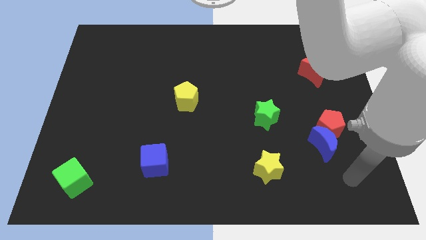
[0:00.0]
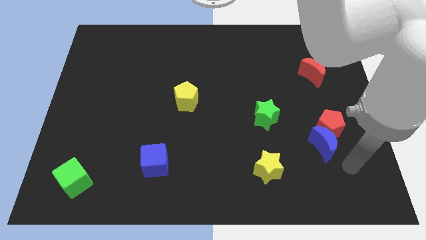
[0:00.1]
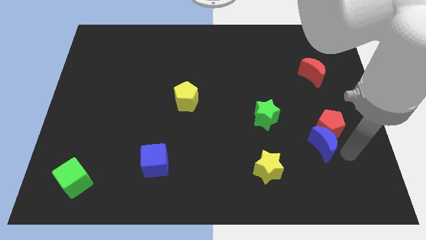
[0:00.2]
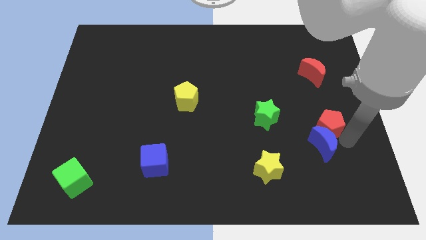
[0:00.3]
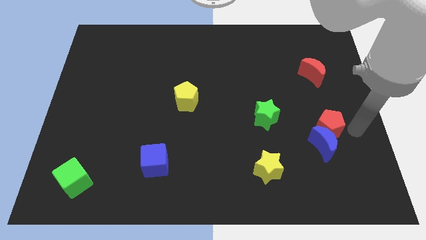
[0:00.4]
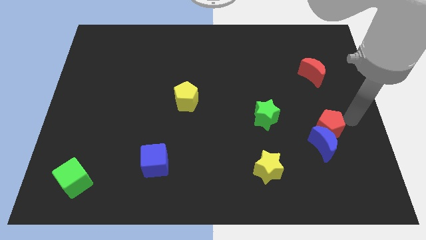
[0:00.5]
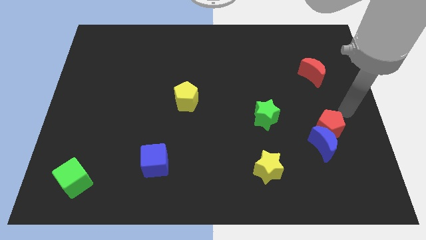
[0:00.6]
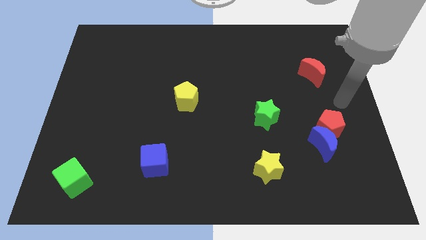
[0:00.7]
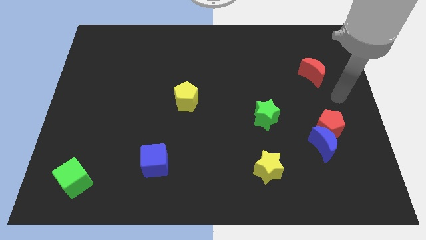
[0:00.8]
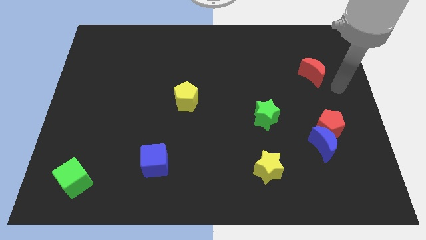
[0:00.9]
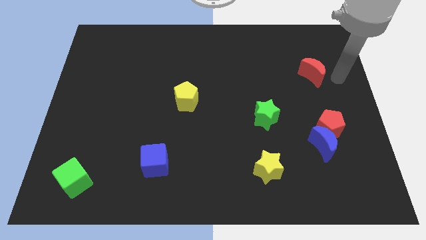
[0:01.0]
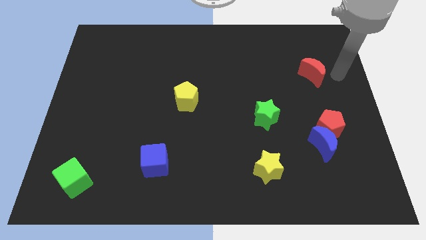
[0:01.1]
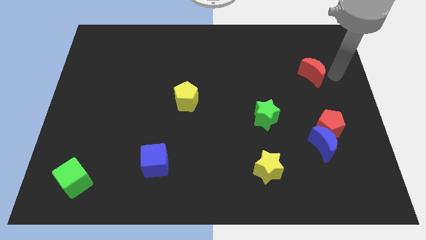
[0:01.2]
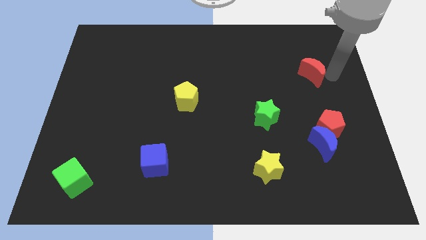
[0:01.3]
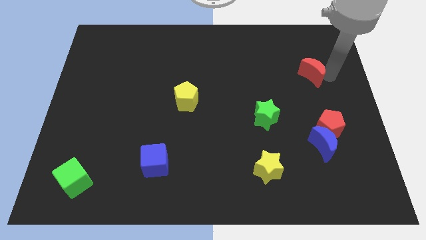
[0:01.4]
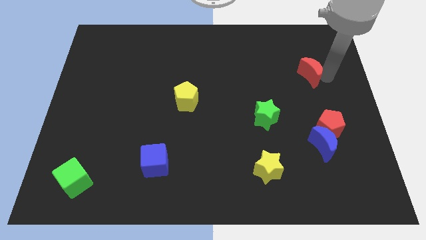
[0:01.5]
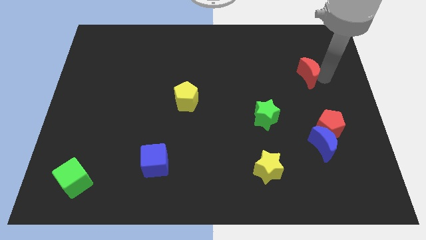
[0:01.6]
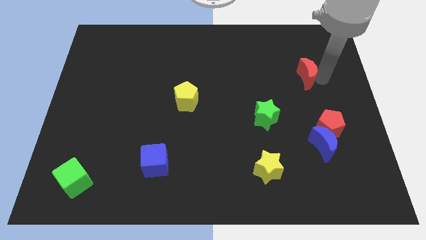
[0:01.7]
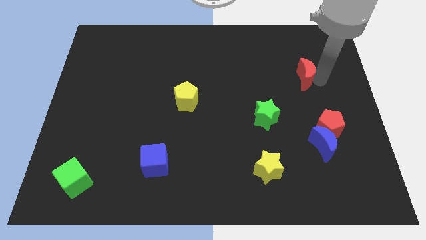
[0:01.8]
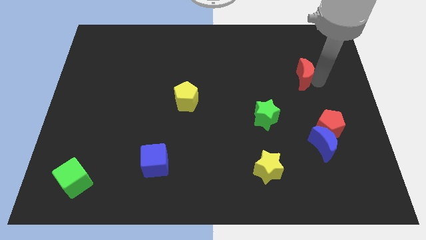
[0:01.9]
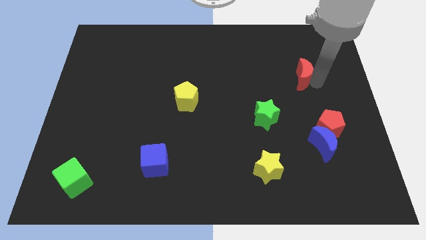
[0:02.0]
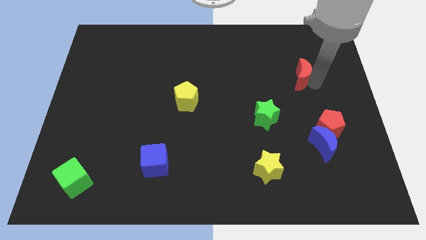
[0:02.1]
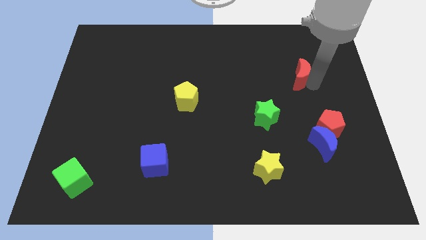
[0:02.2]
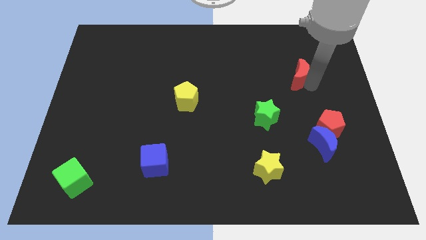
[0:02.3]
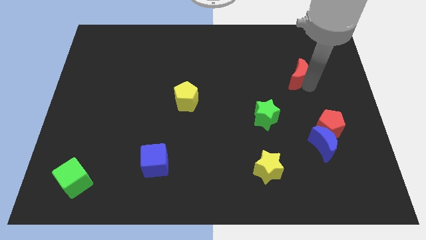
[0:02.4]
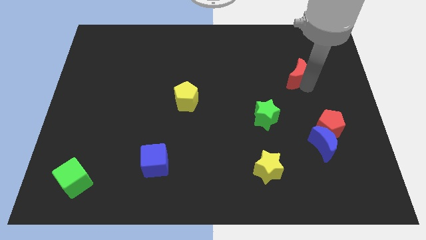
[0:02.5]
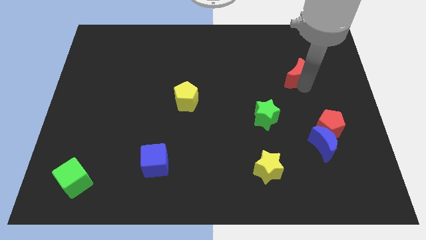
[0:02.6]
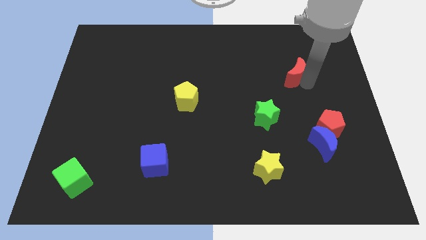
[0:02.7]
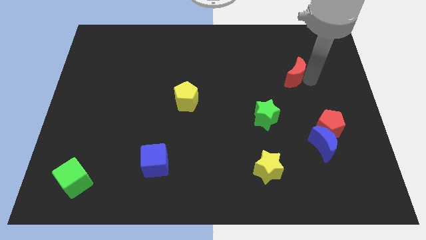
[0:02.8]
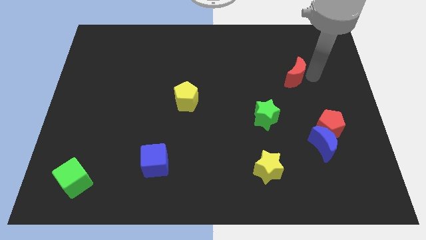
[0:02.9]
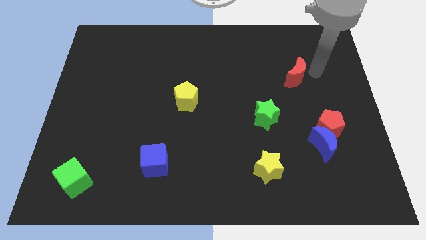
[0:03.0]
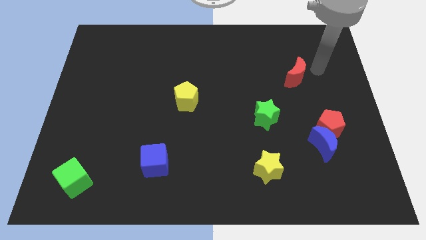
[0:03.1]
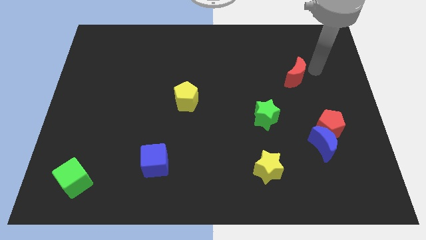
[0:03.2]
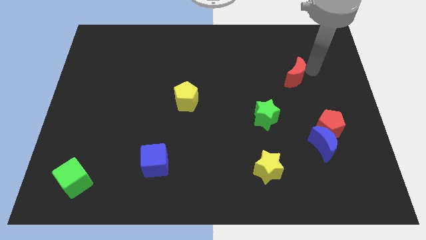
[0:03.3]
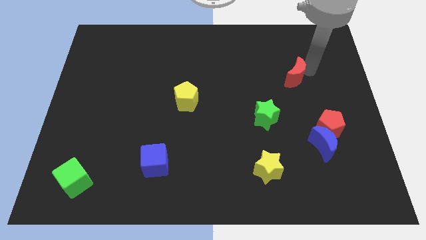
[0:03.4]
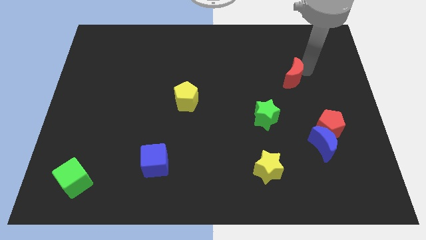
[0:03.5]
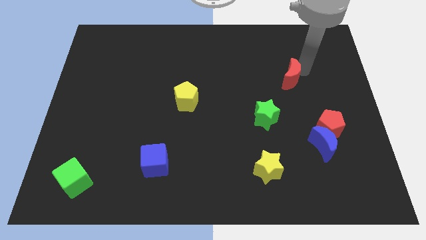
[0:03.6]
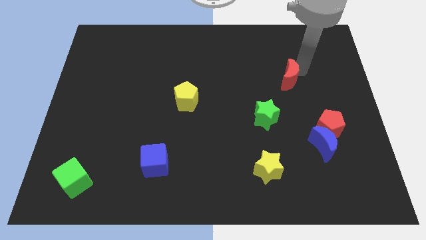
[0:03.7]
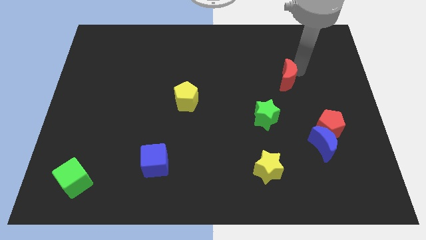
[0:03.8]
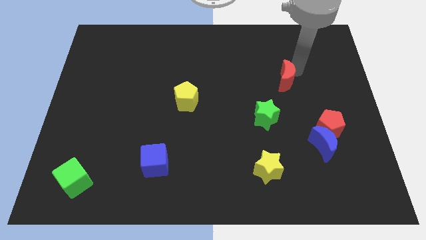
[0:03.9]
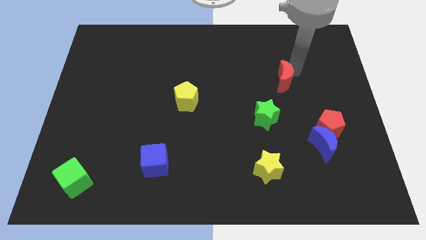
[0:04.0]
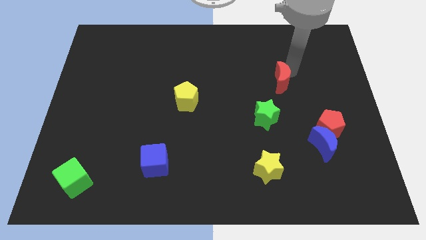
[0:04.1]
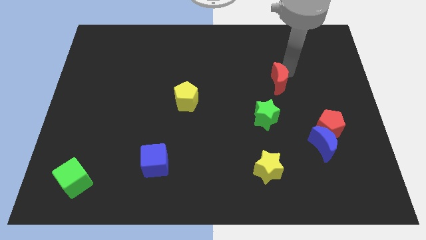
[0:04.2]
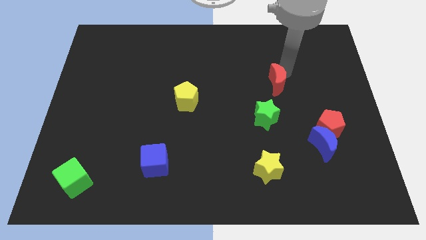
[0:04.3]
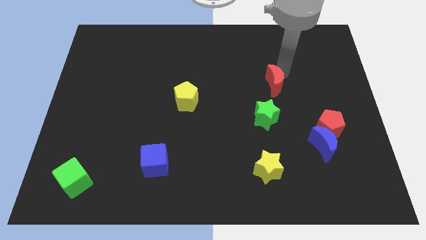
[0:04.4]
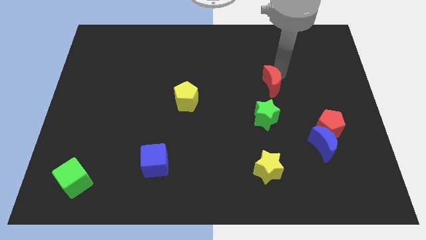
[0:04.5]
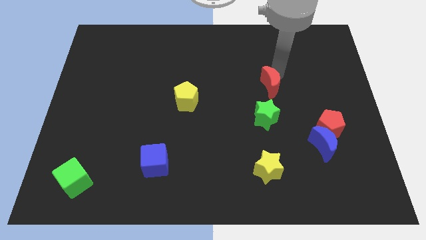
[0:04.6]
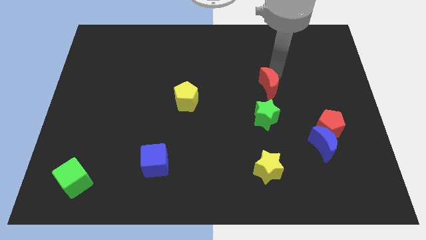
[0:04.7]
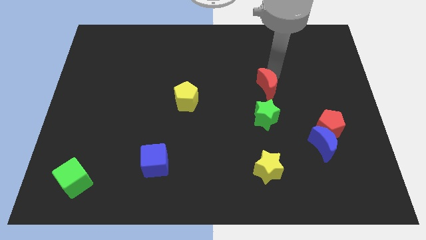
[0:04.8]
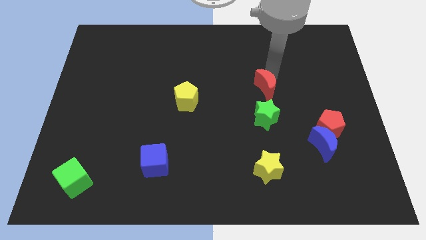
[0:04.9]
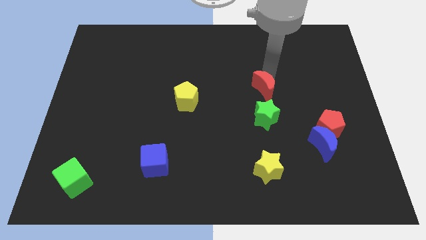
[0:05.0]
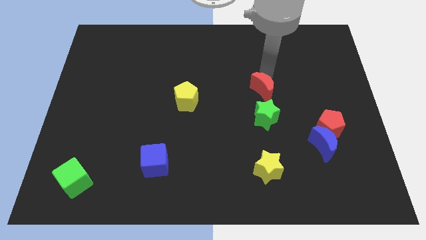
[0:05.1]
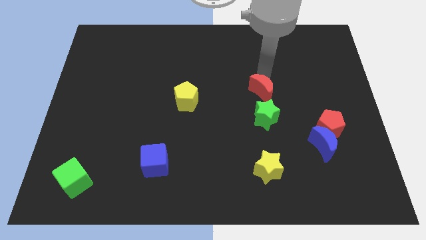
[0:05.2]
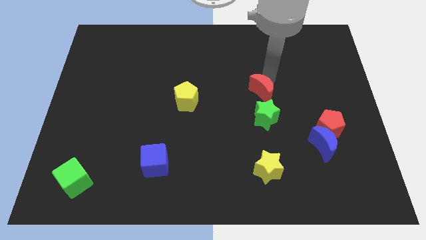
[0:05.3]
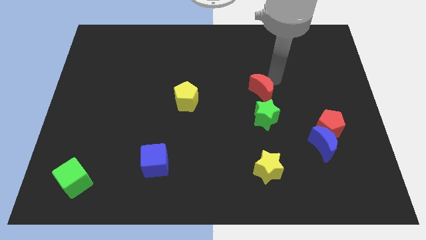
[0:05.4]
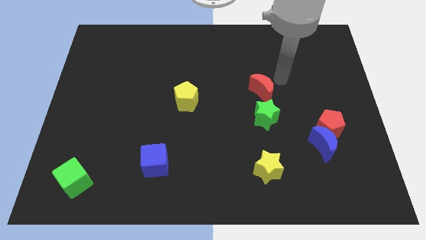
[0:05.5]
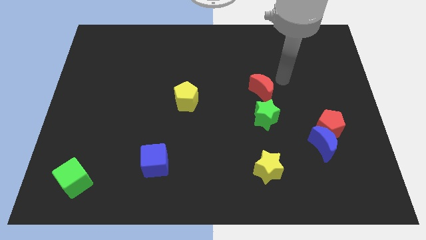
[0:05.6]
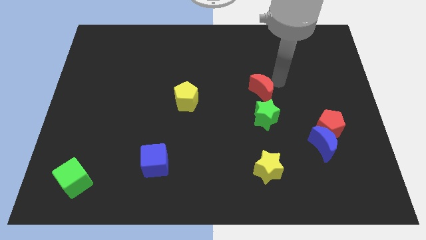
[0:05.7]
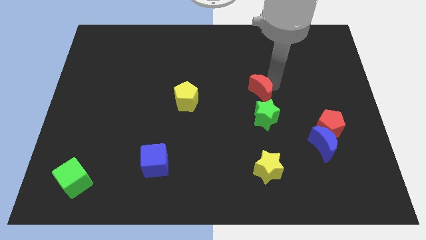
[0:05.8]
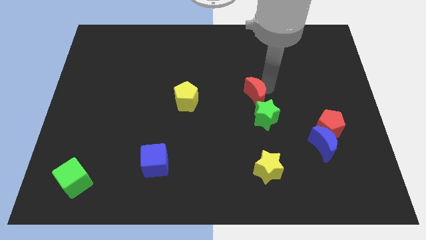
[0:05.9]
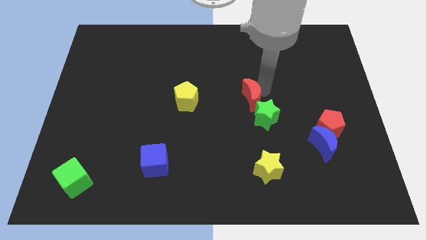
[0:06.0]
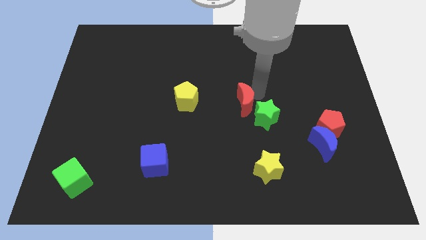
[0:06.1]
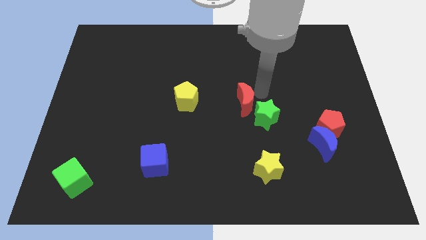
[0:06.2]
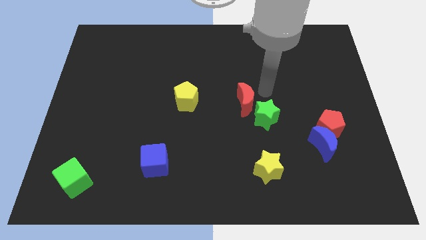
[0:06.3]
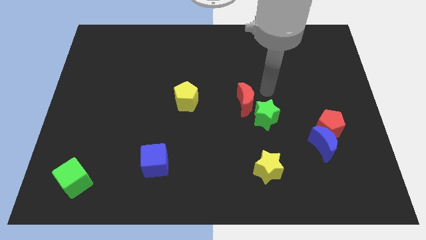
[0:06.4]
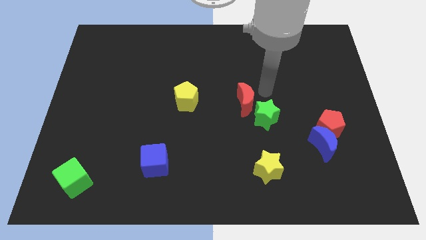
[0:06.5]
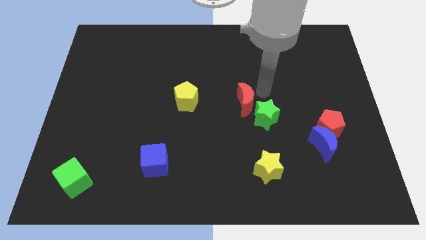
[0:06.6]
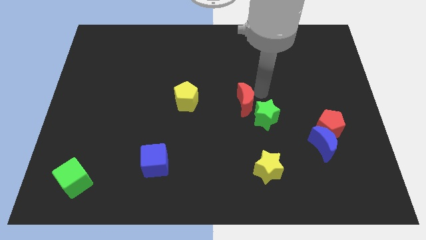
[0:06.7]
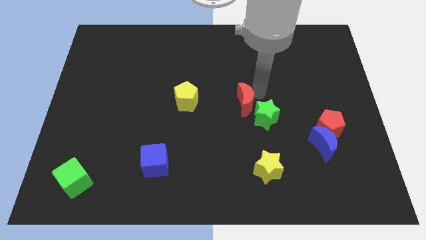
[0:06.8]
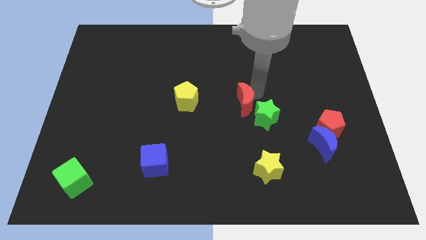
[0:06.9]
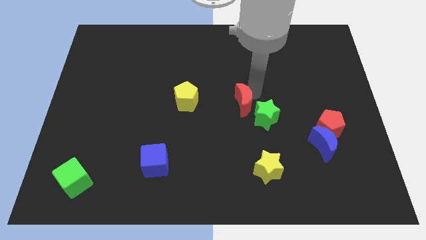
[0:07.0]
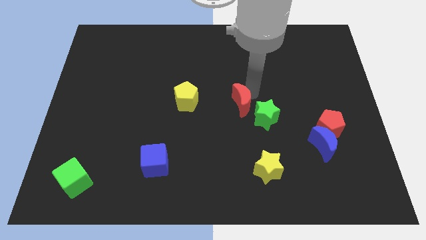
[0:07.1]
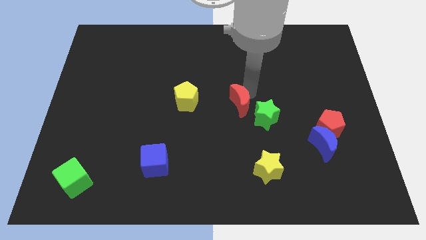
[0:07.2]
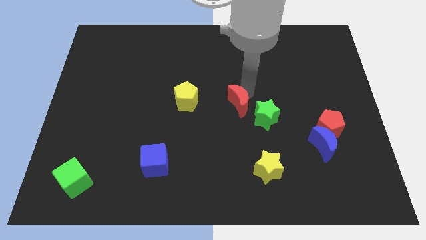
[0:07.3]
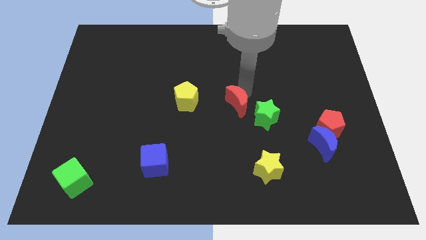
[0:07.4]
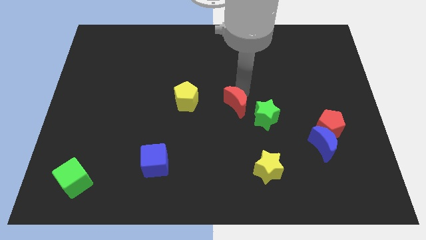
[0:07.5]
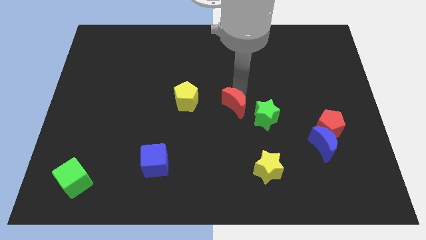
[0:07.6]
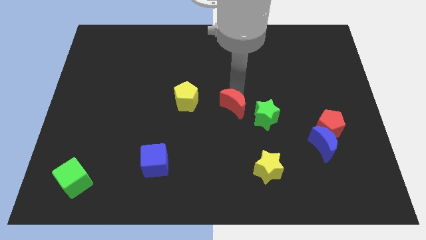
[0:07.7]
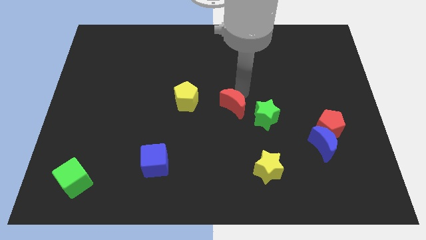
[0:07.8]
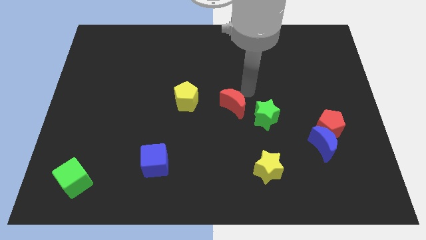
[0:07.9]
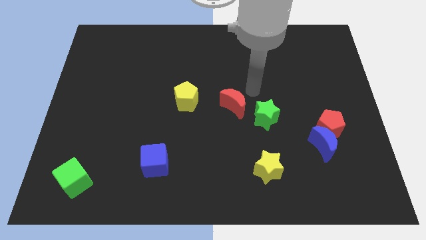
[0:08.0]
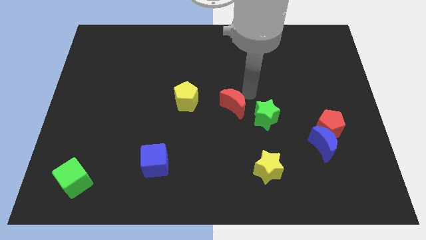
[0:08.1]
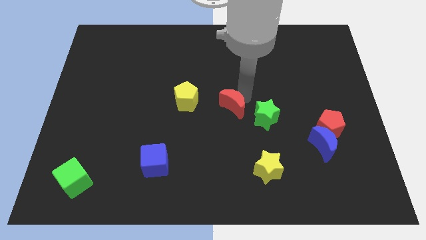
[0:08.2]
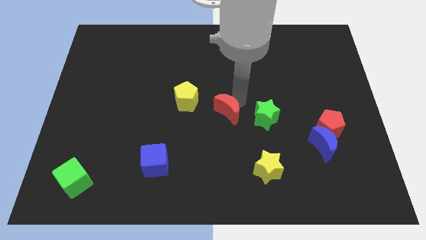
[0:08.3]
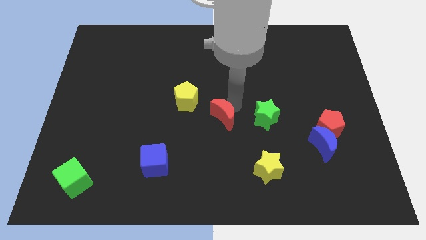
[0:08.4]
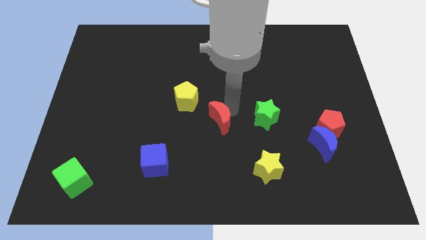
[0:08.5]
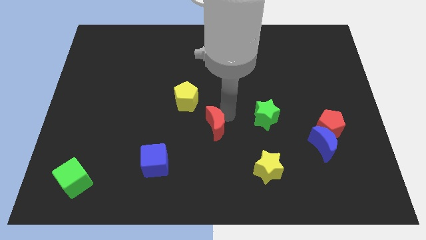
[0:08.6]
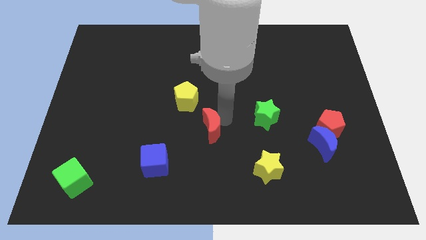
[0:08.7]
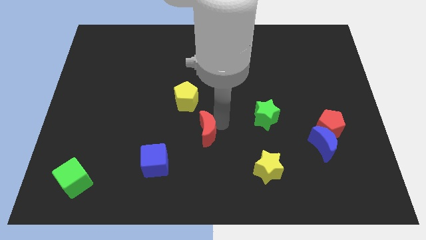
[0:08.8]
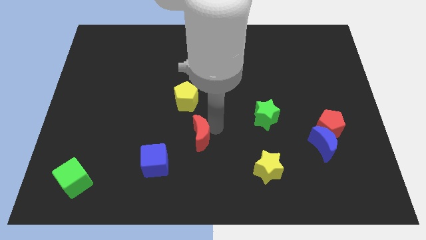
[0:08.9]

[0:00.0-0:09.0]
slide the red moon diagonally up and to the right of the blue cube
